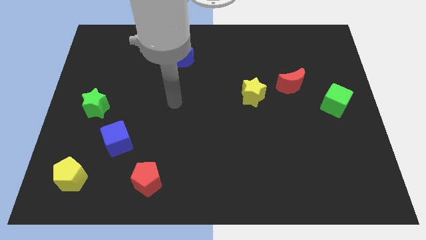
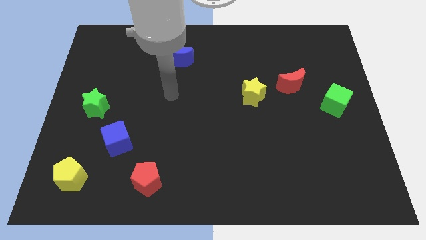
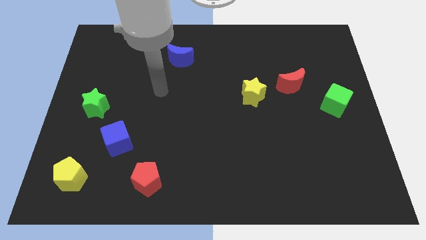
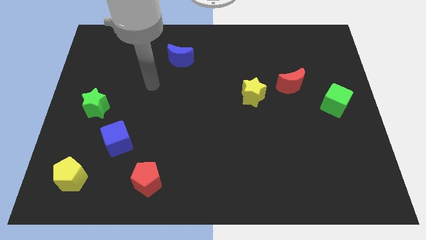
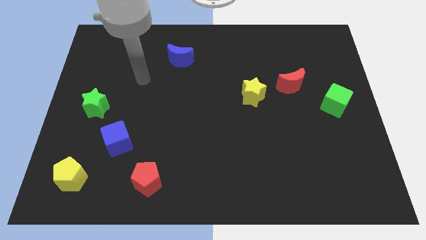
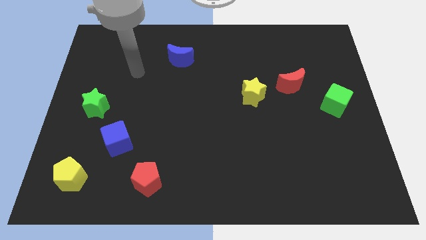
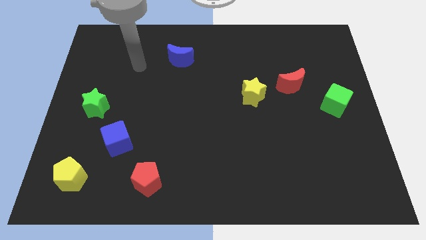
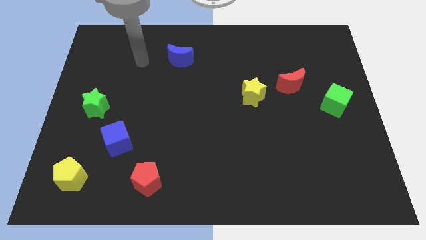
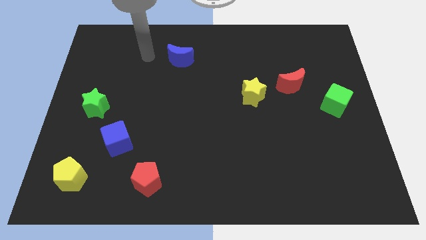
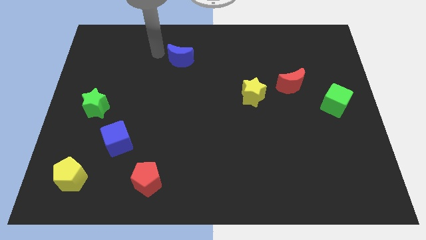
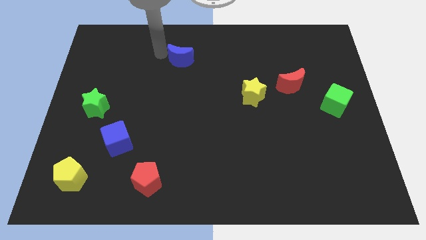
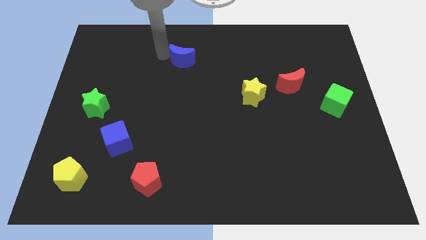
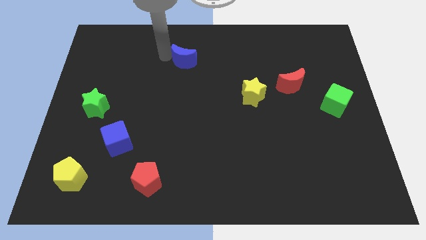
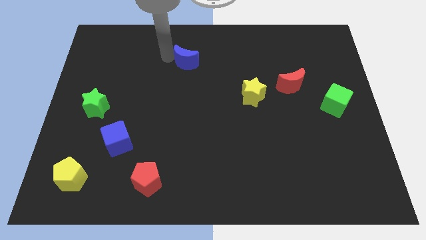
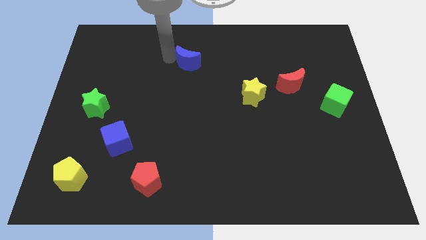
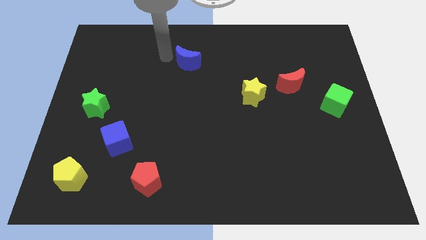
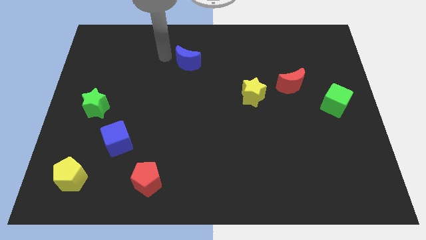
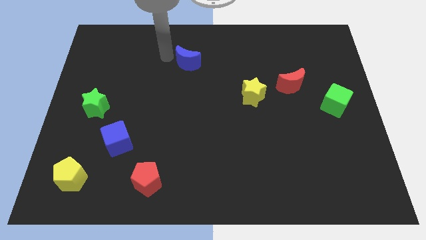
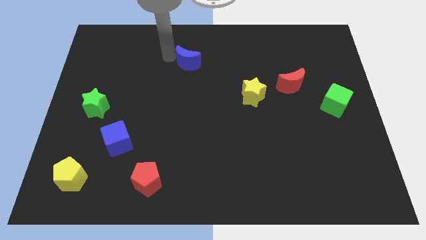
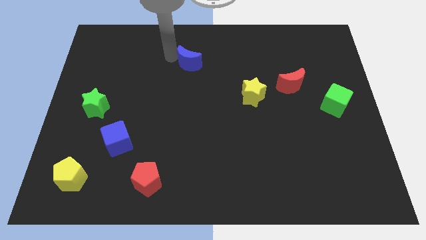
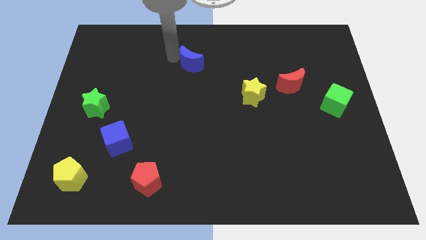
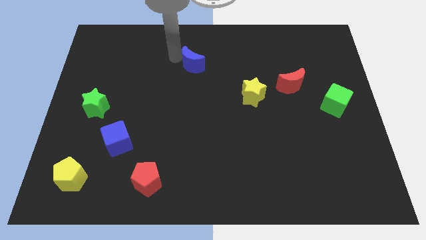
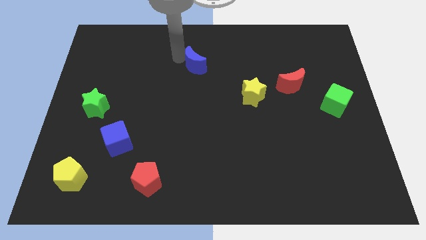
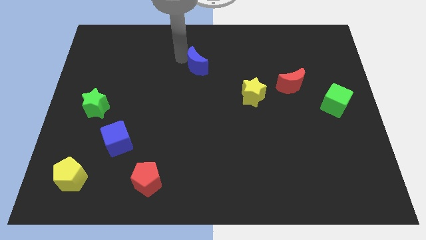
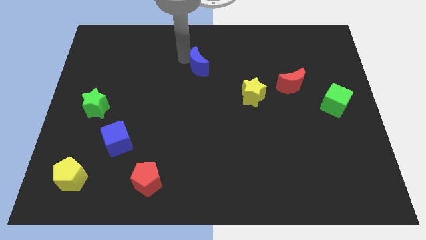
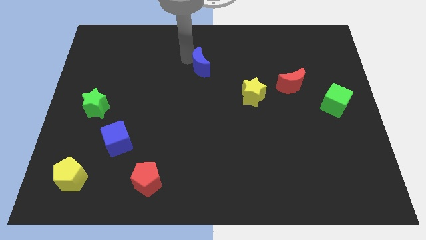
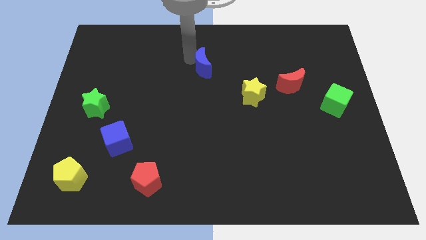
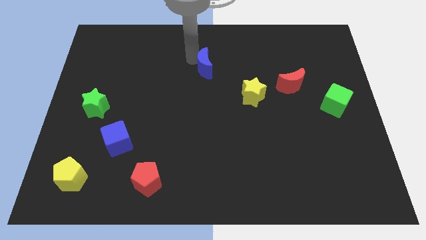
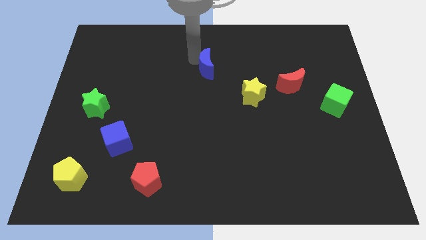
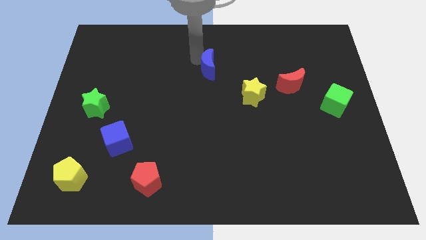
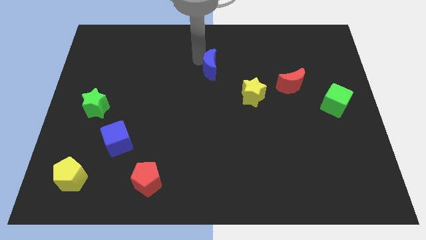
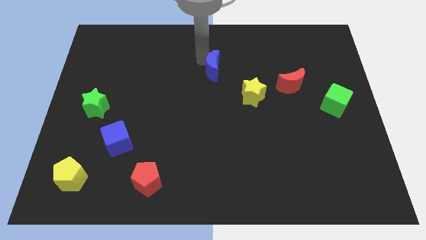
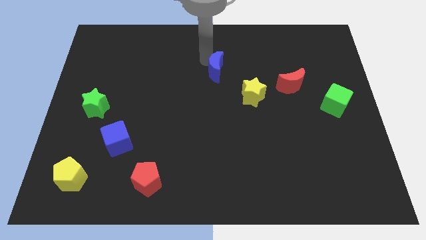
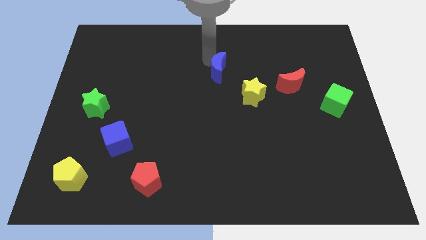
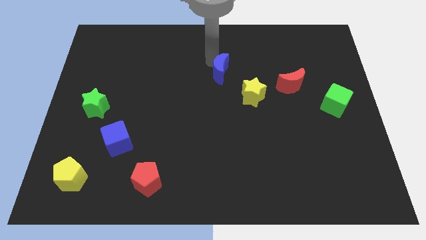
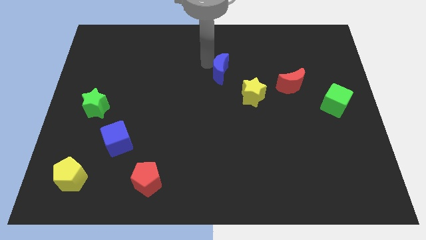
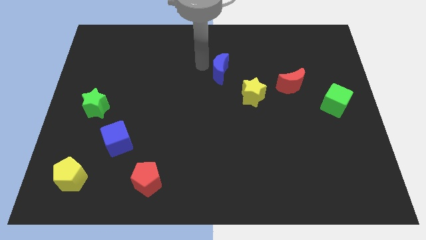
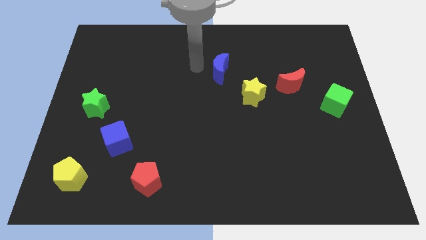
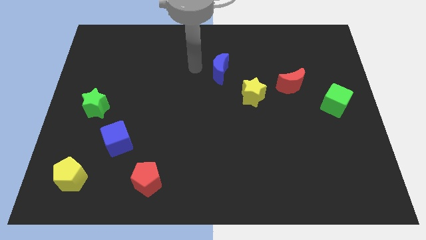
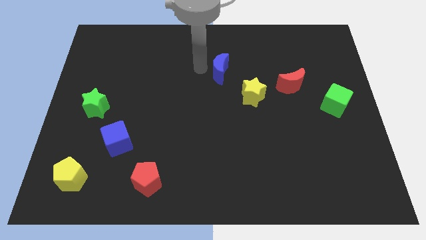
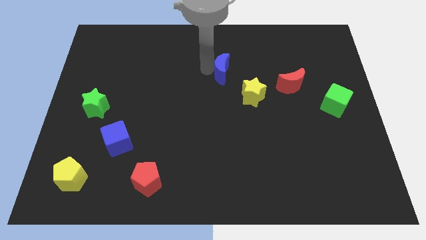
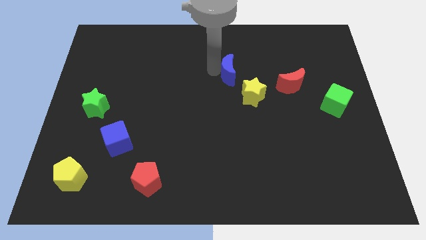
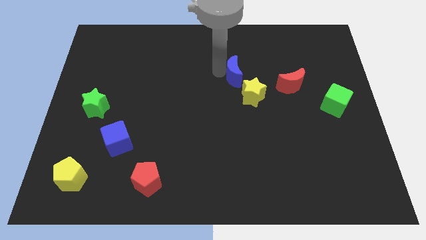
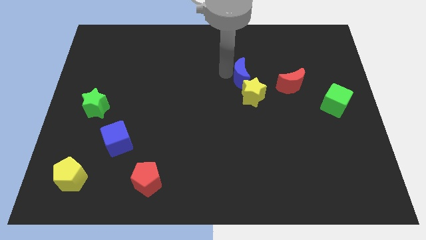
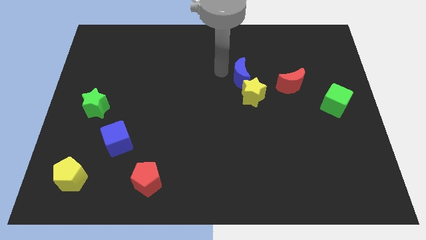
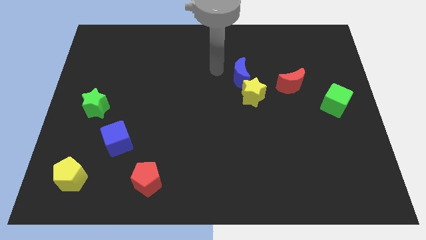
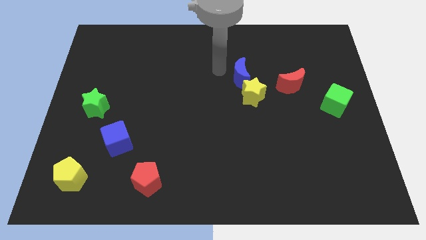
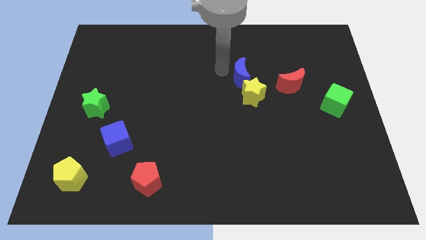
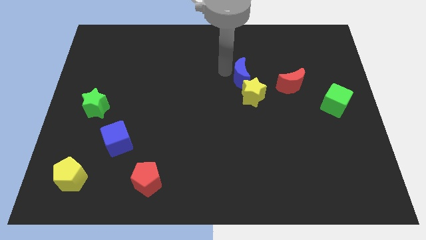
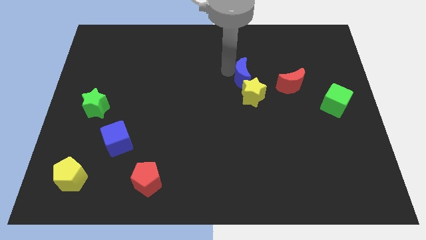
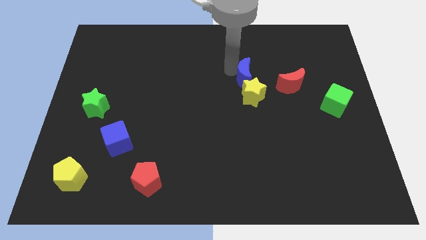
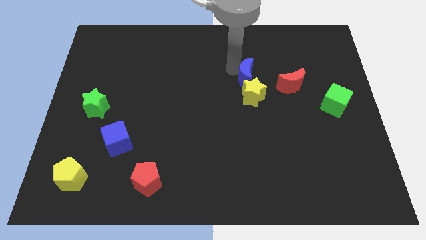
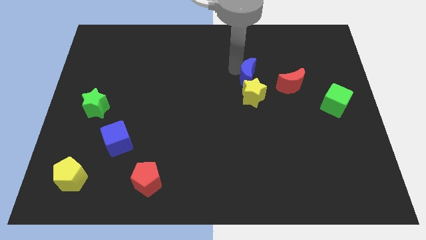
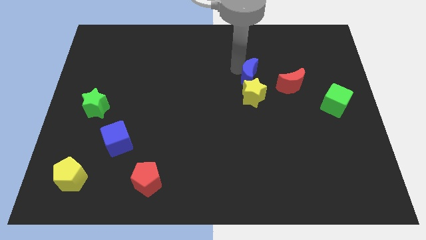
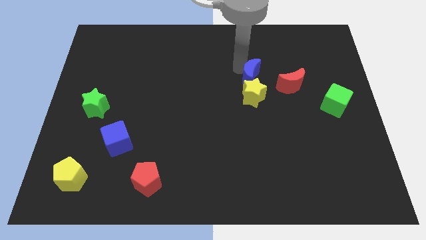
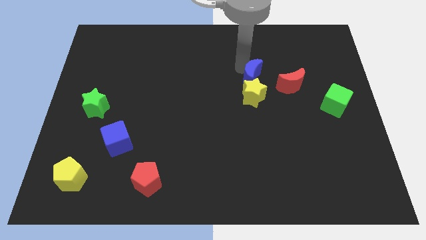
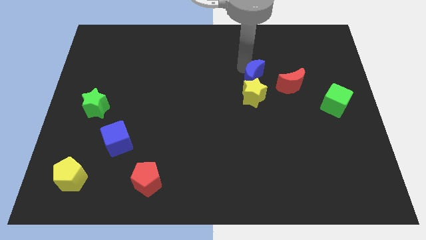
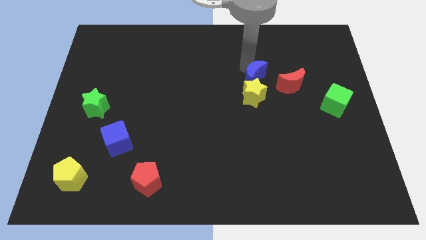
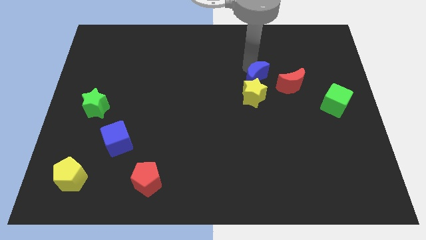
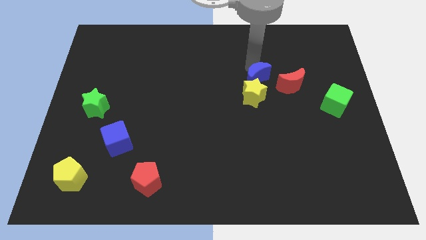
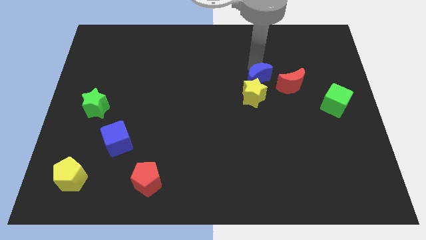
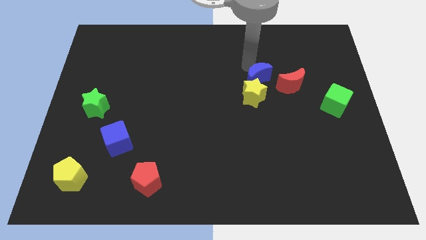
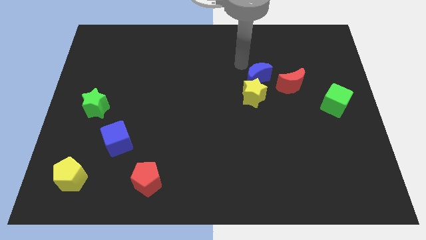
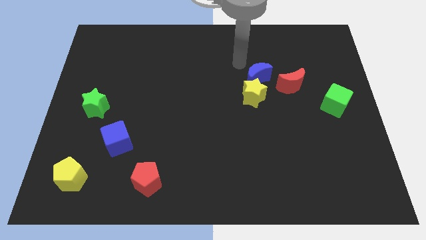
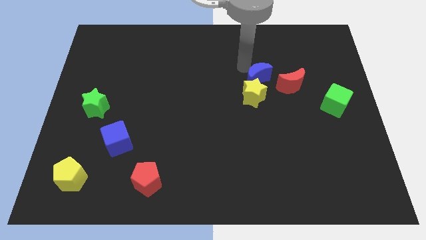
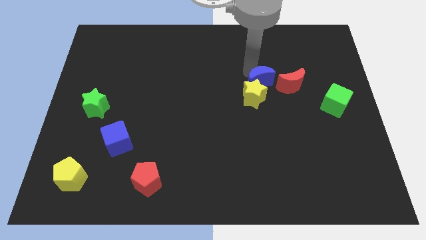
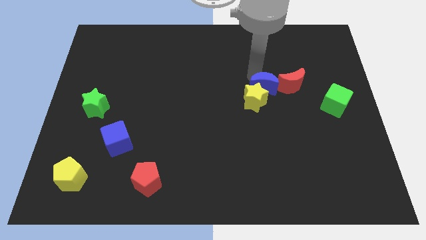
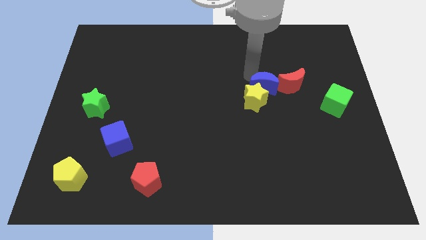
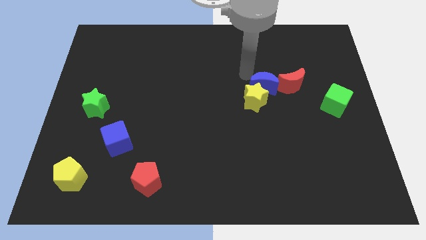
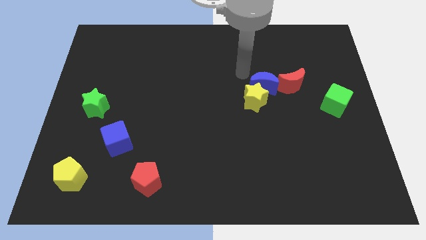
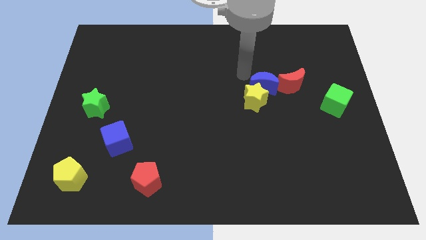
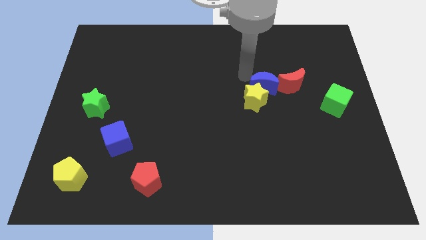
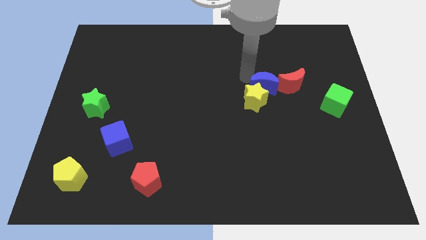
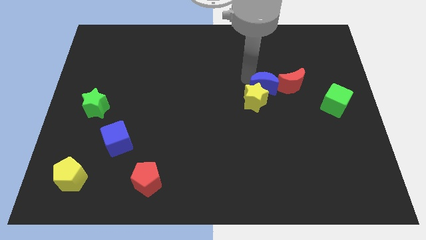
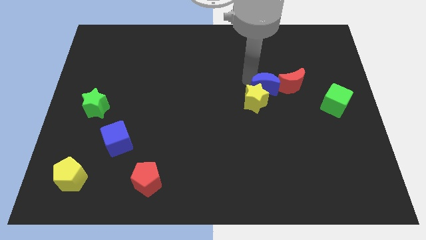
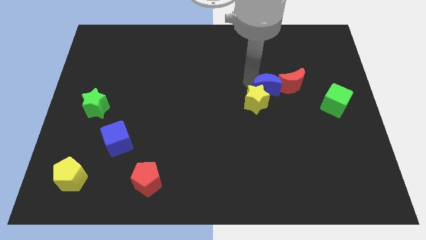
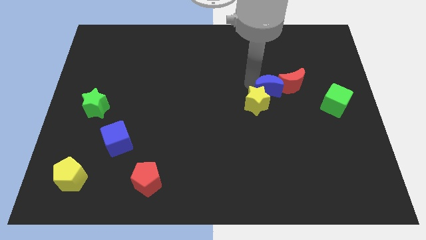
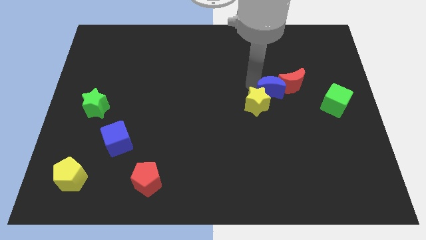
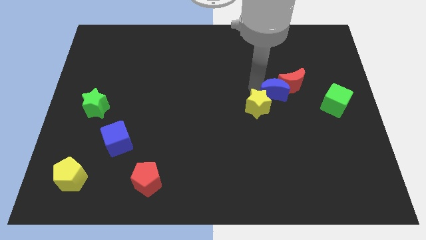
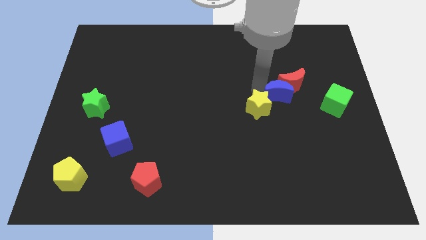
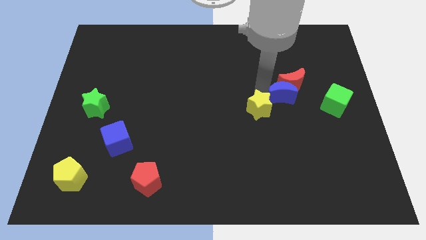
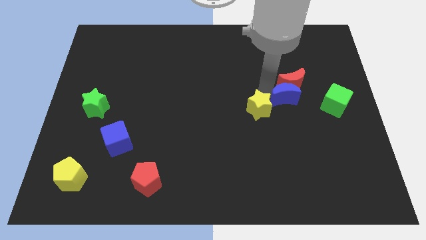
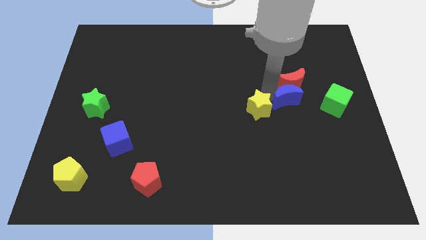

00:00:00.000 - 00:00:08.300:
move the blue moon to the bottom right side of the red moon
